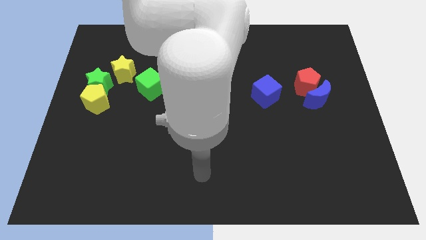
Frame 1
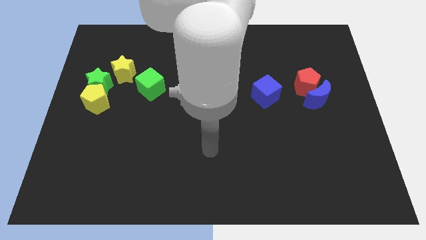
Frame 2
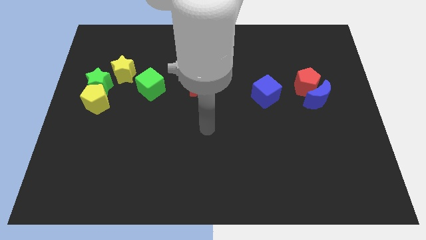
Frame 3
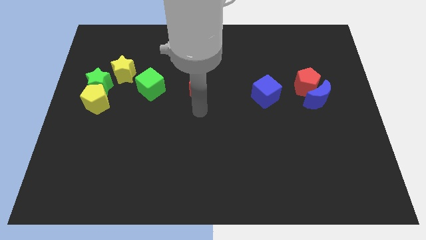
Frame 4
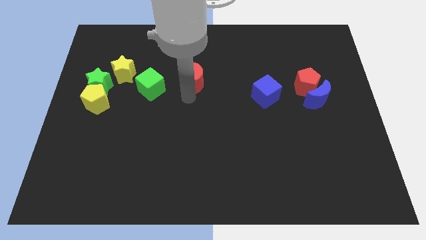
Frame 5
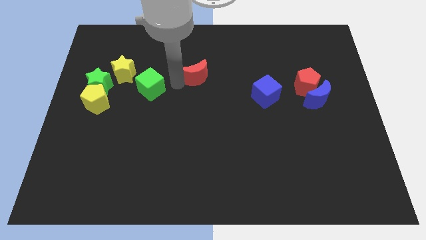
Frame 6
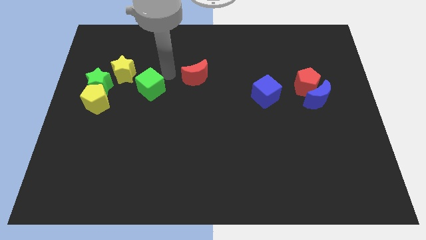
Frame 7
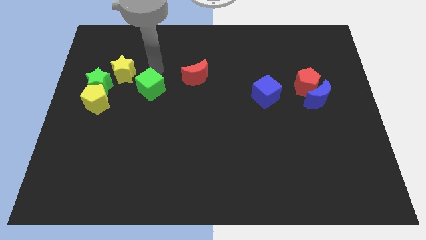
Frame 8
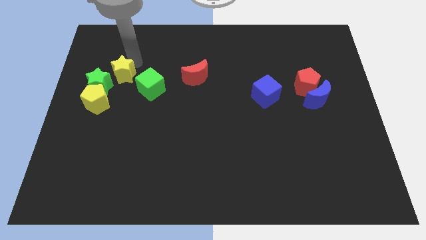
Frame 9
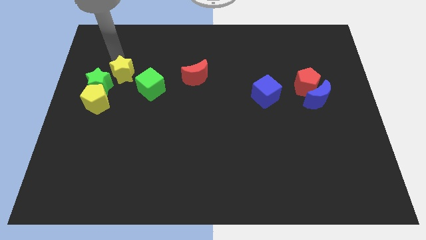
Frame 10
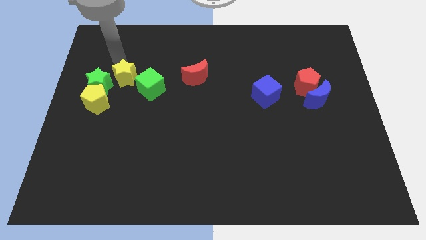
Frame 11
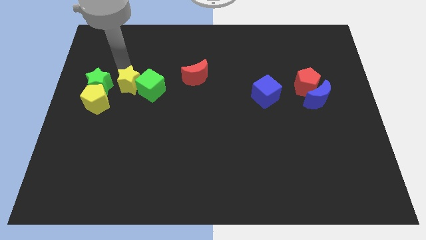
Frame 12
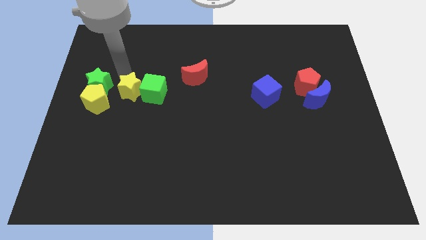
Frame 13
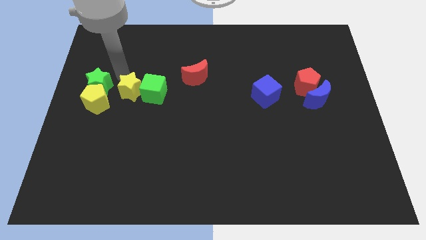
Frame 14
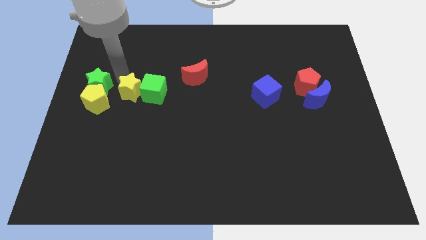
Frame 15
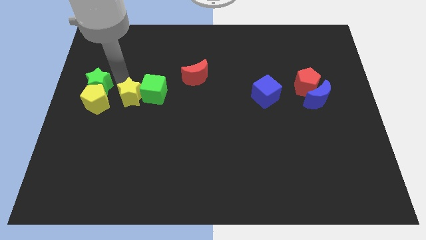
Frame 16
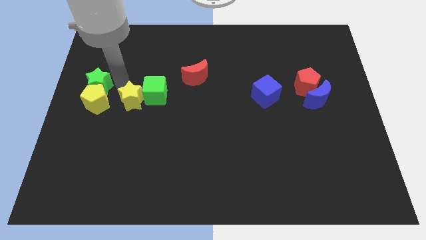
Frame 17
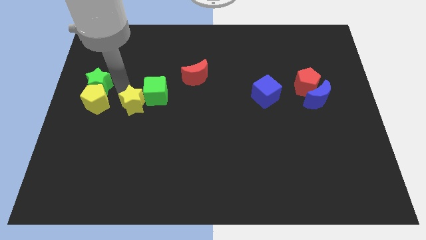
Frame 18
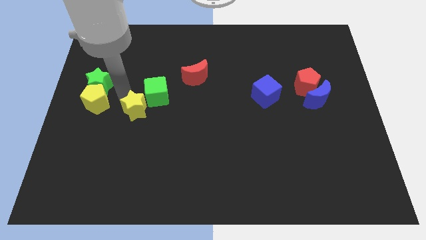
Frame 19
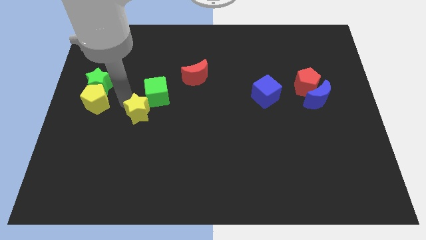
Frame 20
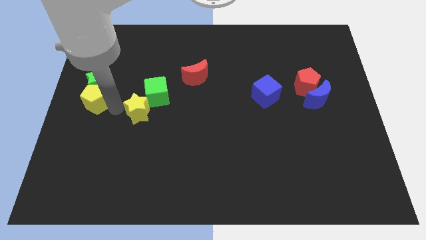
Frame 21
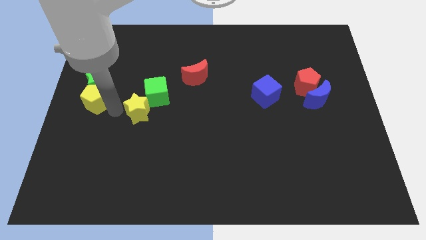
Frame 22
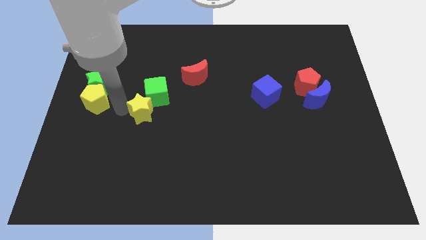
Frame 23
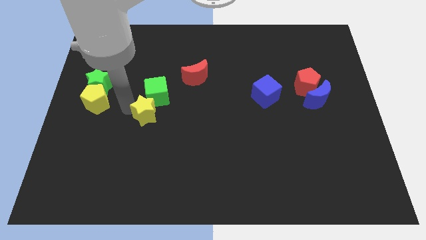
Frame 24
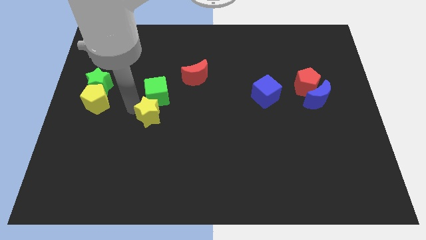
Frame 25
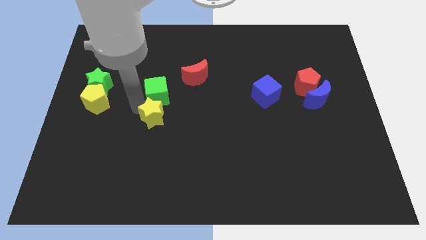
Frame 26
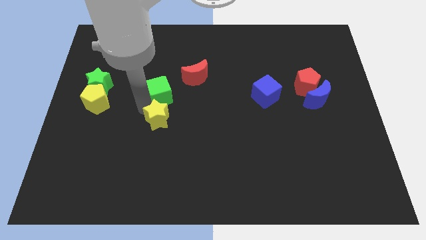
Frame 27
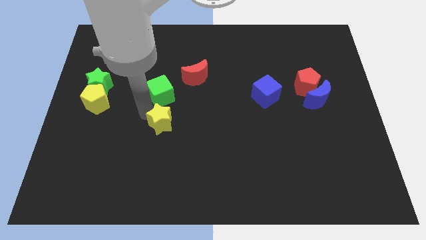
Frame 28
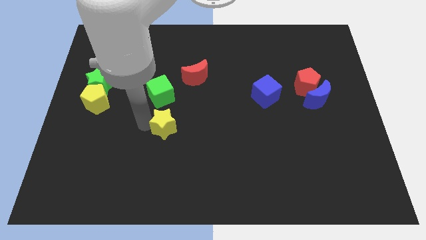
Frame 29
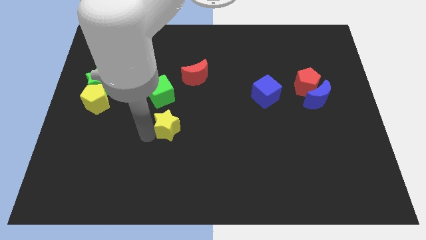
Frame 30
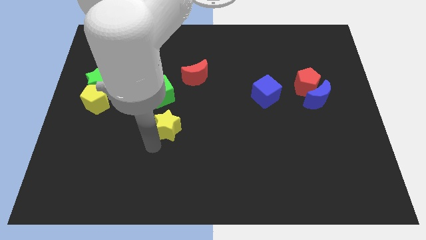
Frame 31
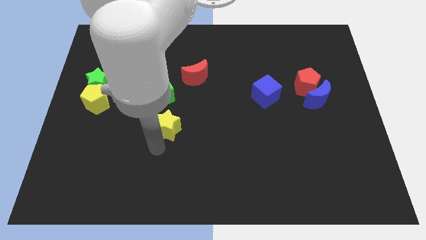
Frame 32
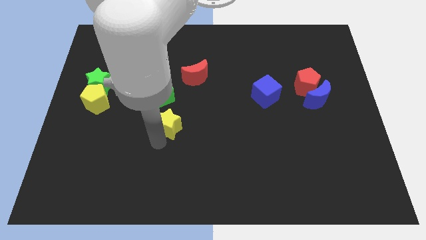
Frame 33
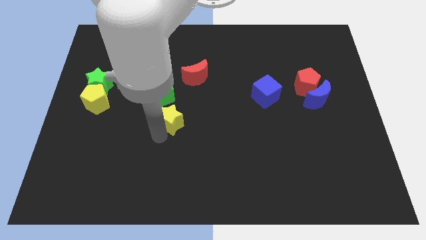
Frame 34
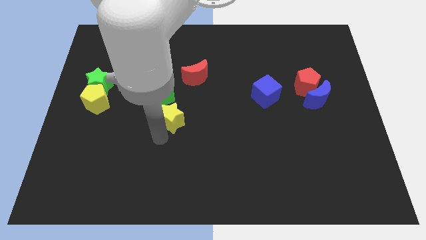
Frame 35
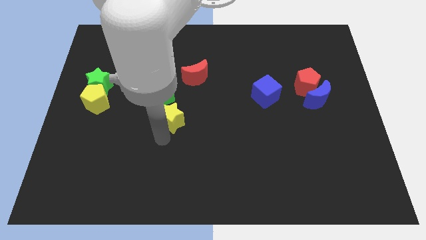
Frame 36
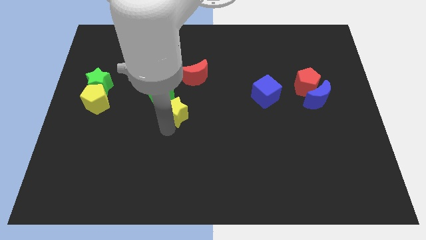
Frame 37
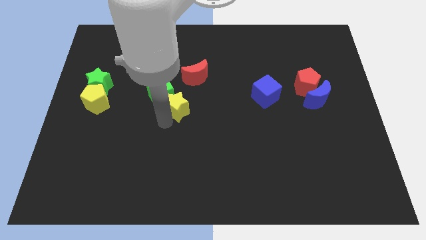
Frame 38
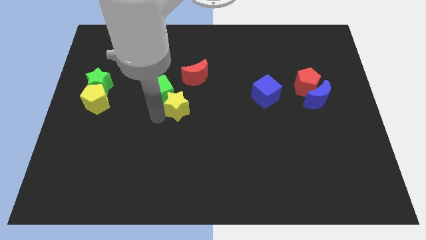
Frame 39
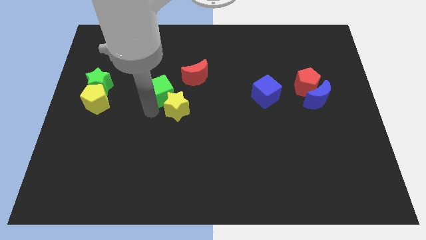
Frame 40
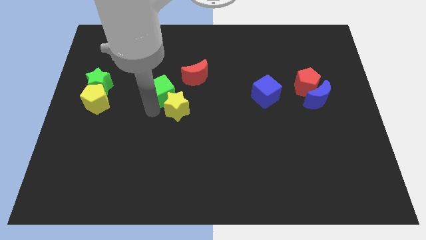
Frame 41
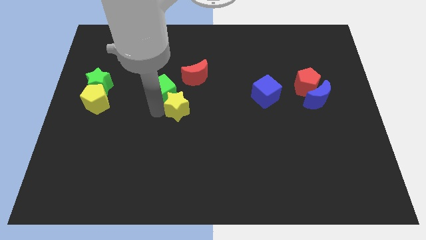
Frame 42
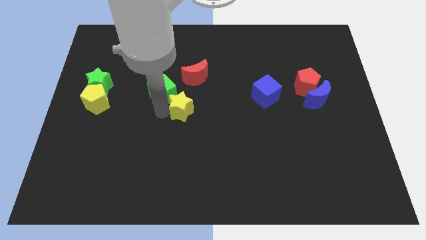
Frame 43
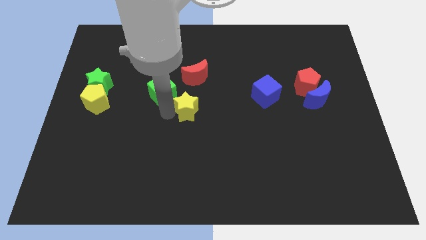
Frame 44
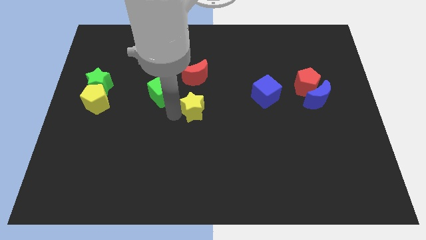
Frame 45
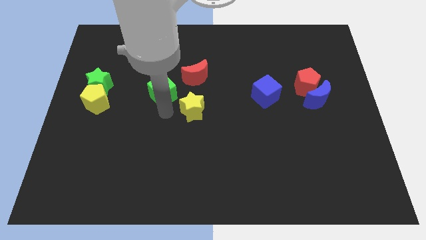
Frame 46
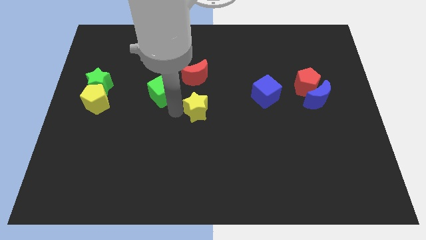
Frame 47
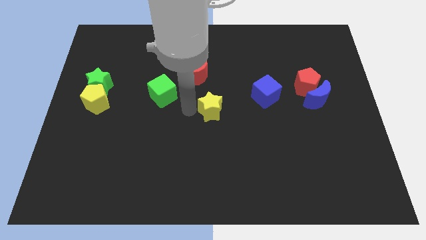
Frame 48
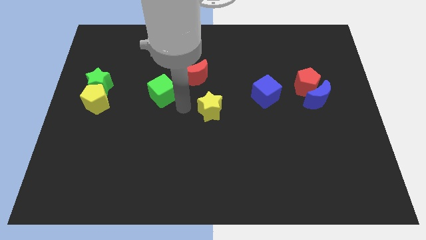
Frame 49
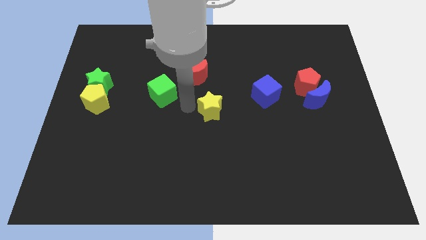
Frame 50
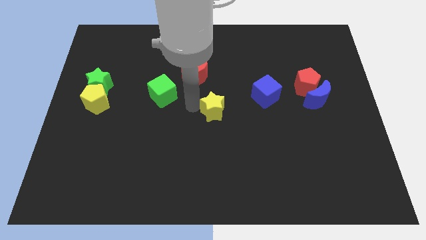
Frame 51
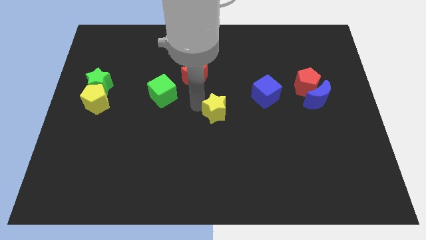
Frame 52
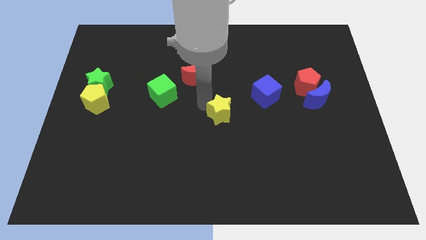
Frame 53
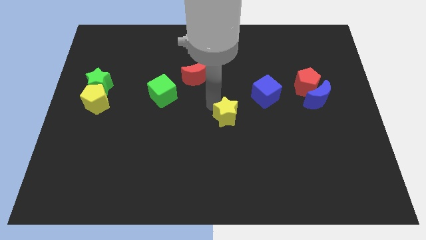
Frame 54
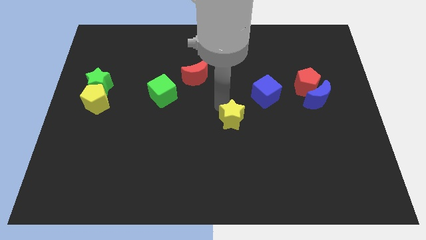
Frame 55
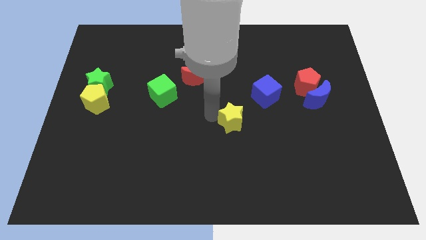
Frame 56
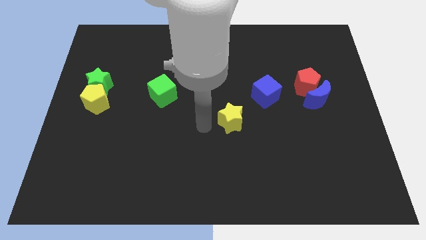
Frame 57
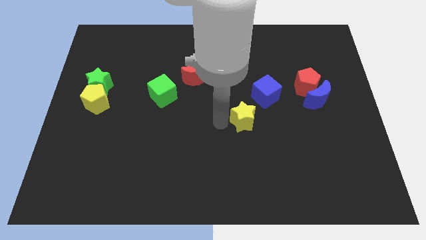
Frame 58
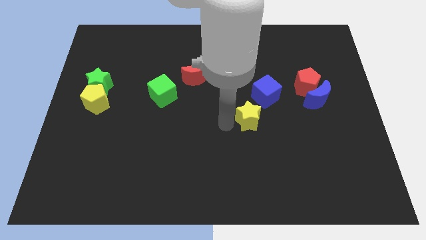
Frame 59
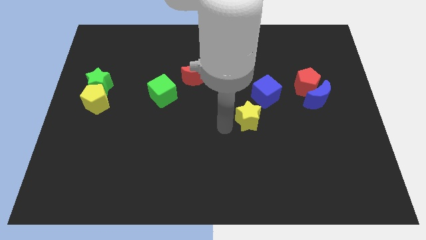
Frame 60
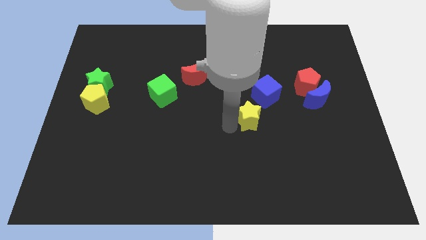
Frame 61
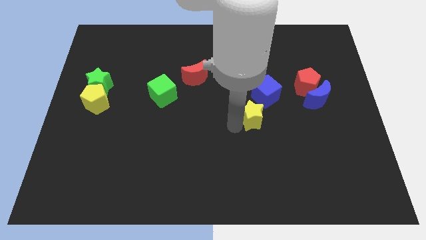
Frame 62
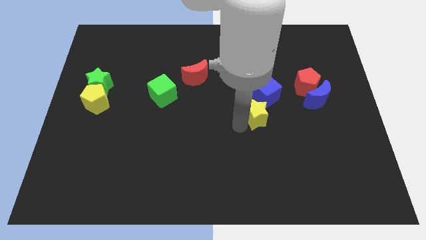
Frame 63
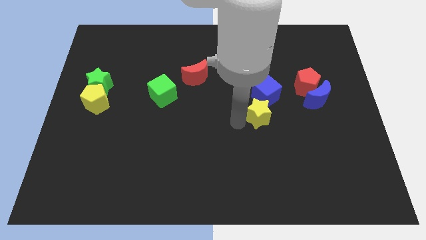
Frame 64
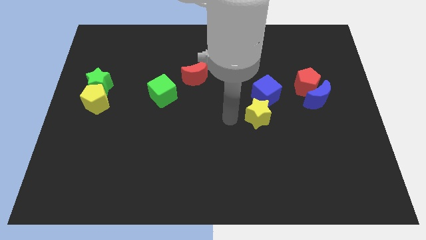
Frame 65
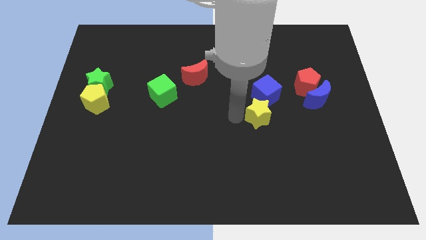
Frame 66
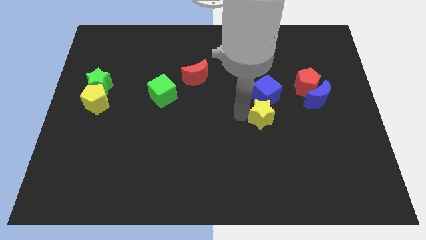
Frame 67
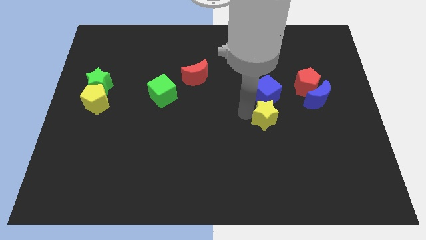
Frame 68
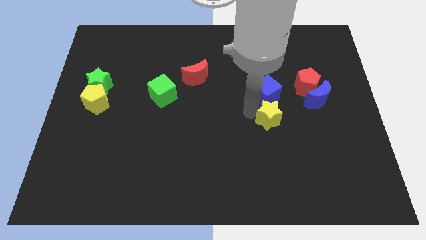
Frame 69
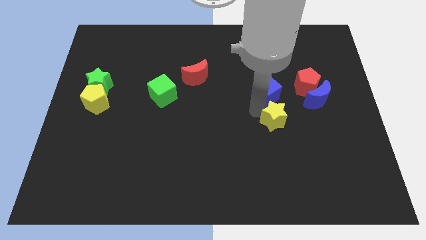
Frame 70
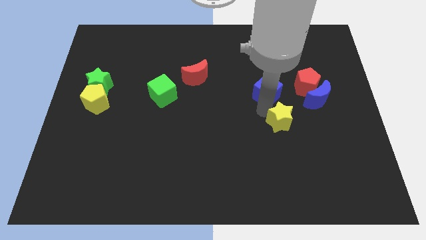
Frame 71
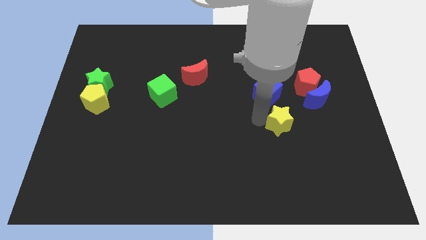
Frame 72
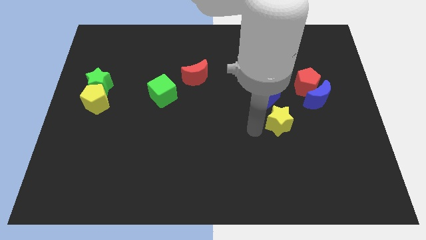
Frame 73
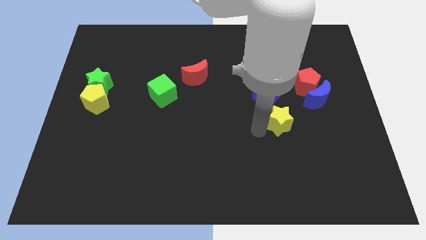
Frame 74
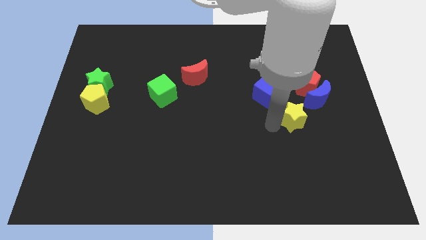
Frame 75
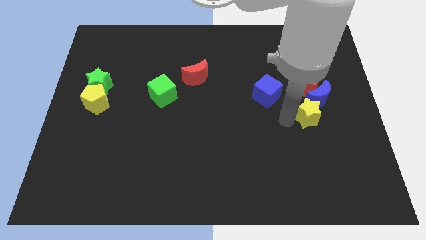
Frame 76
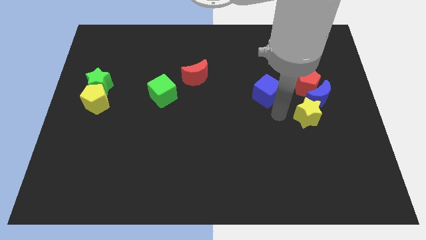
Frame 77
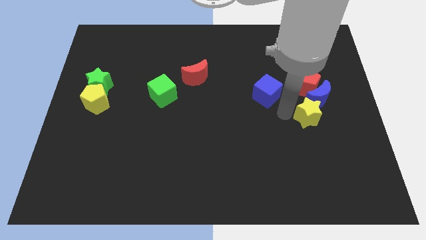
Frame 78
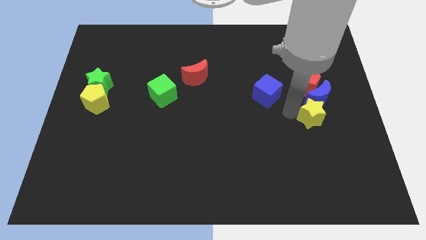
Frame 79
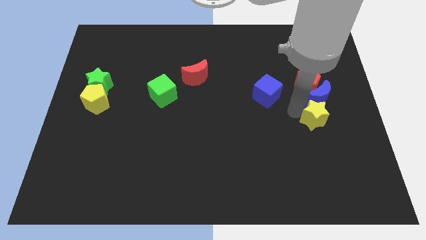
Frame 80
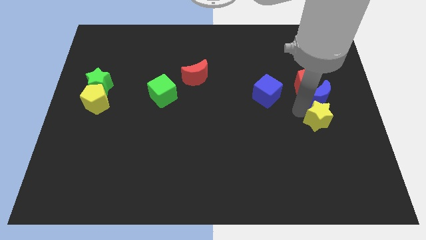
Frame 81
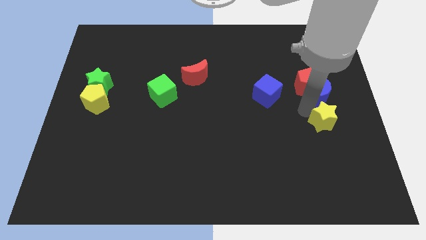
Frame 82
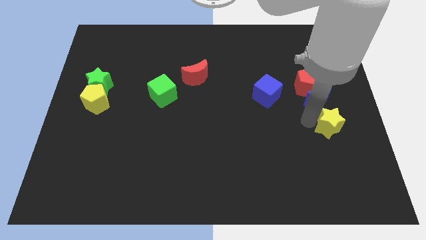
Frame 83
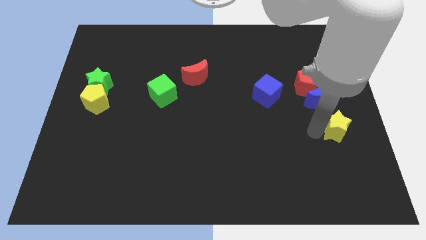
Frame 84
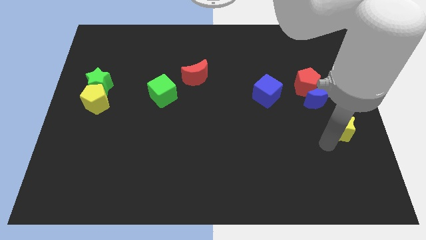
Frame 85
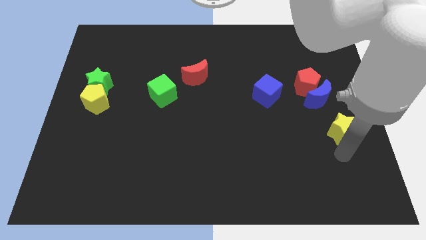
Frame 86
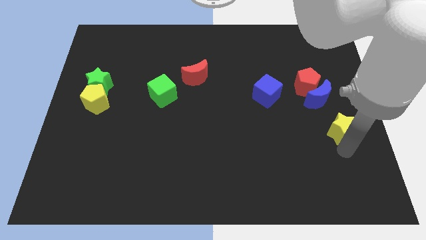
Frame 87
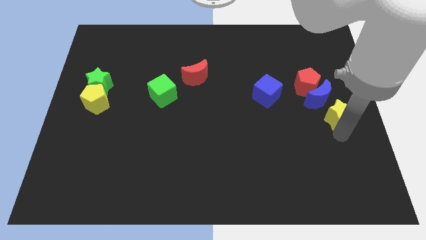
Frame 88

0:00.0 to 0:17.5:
put the yellow star to the bottom right side of the red pentagon
